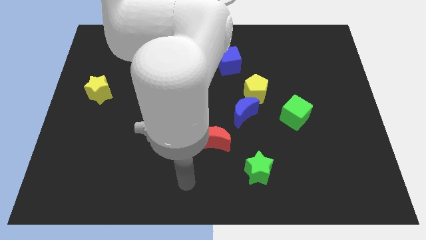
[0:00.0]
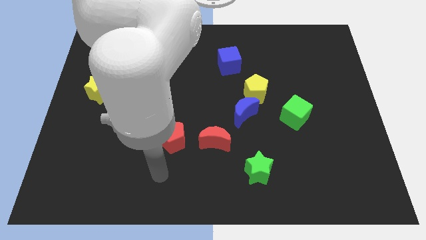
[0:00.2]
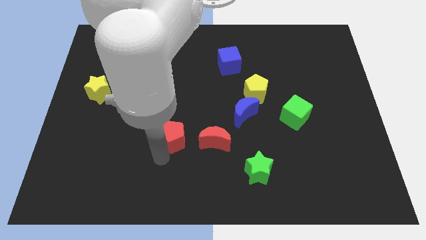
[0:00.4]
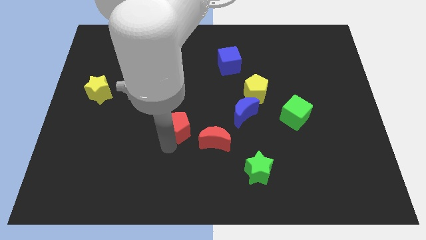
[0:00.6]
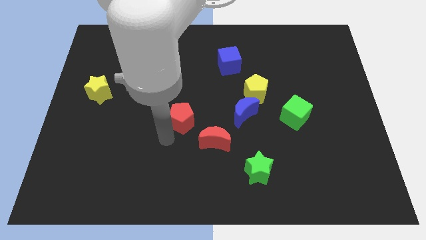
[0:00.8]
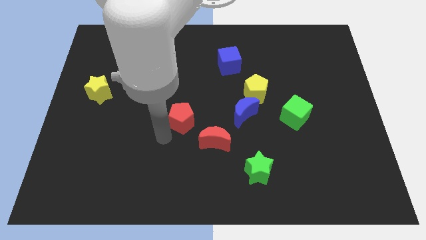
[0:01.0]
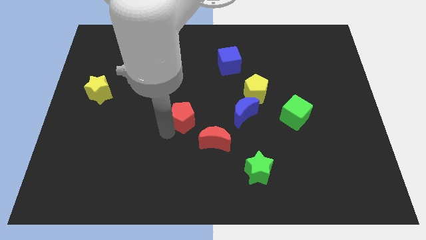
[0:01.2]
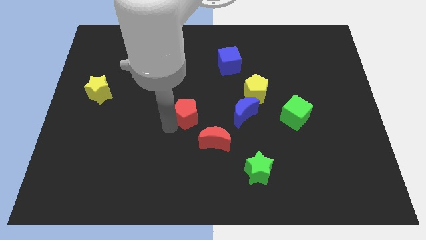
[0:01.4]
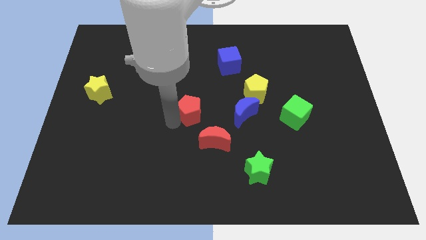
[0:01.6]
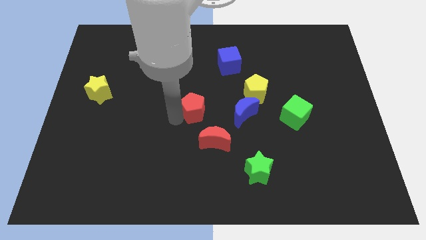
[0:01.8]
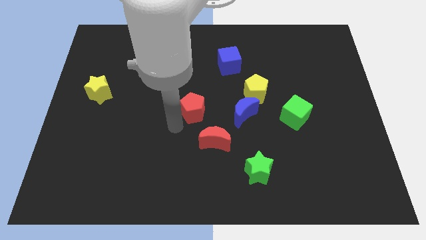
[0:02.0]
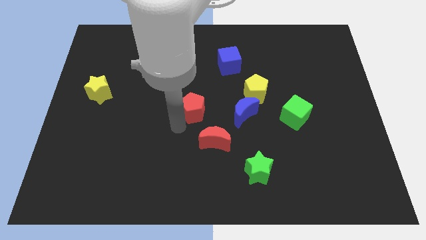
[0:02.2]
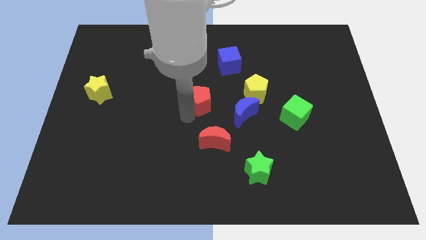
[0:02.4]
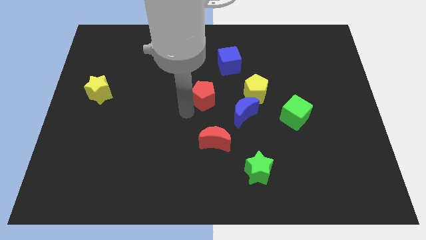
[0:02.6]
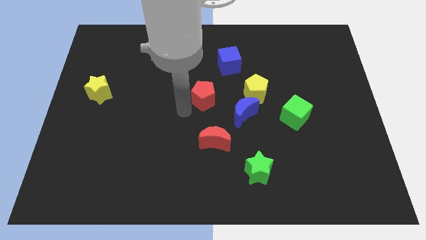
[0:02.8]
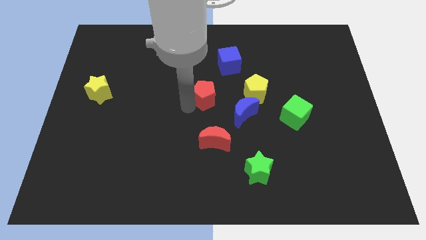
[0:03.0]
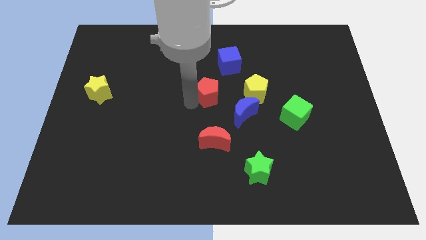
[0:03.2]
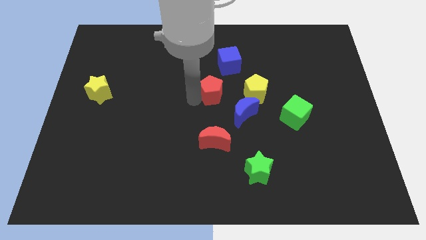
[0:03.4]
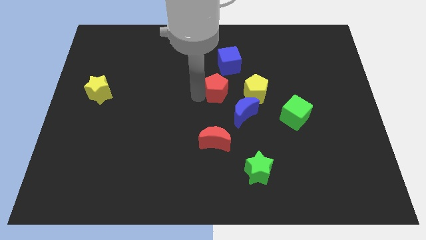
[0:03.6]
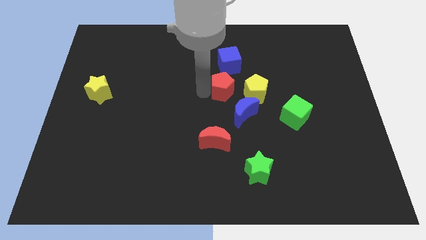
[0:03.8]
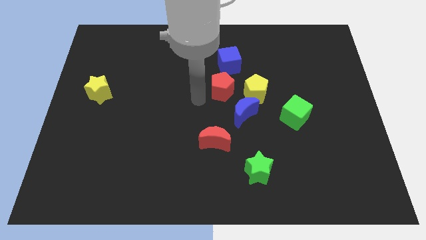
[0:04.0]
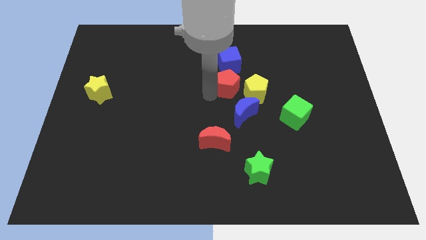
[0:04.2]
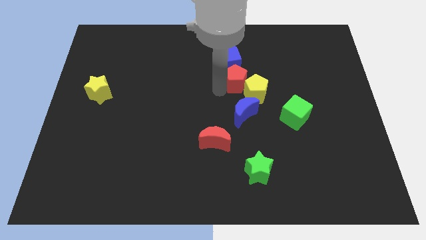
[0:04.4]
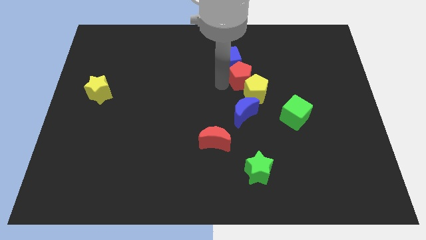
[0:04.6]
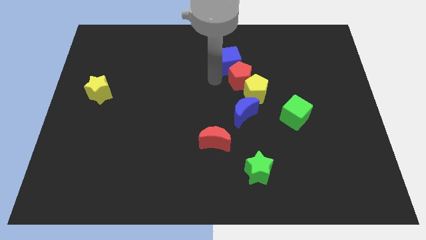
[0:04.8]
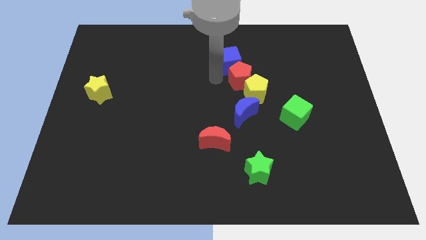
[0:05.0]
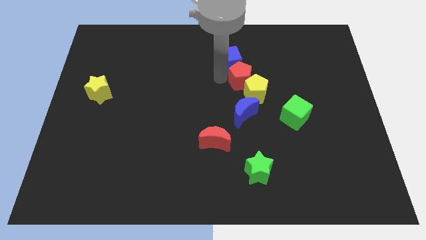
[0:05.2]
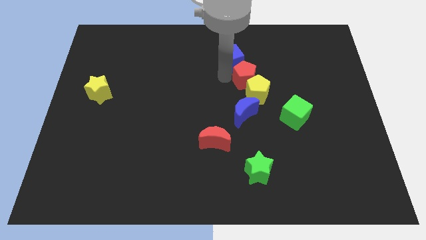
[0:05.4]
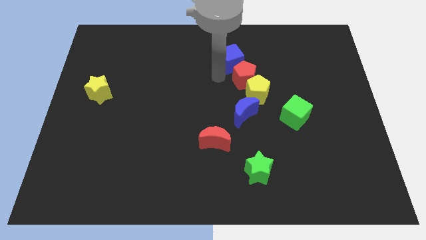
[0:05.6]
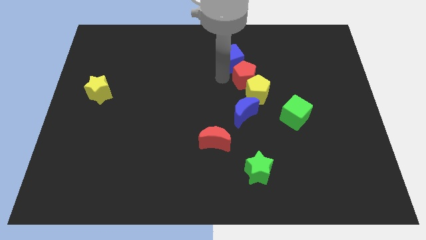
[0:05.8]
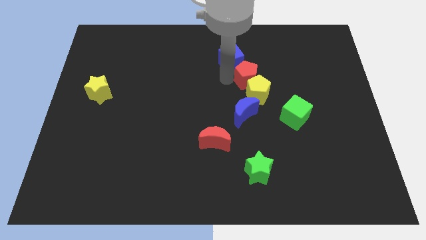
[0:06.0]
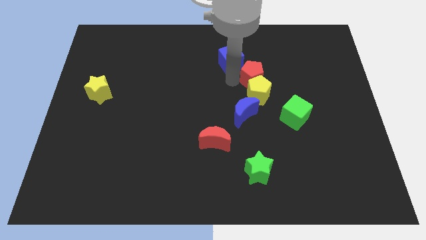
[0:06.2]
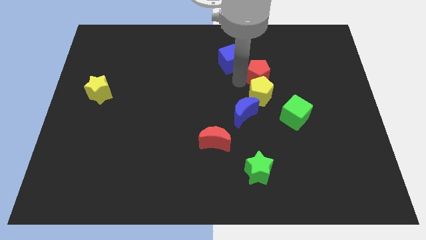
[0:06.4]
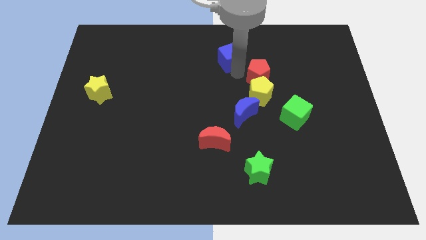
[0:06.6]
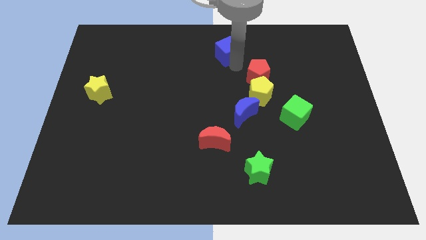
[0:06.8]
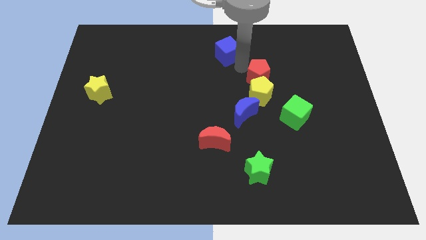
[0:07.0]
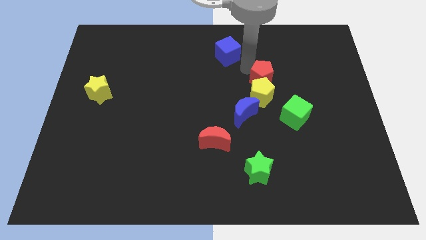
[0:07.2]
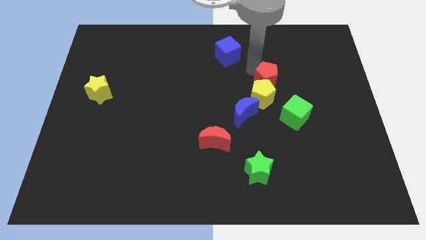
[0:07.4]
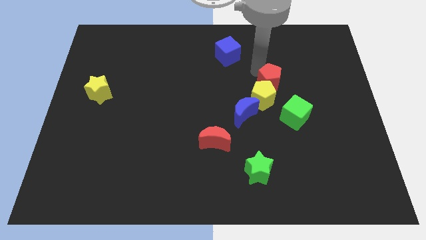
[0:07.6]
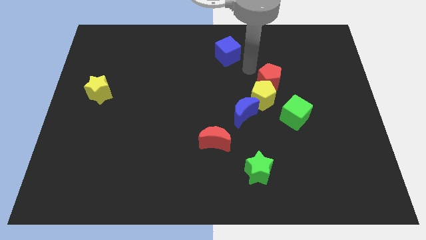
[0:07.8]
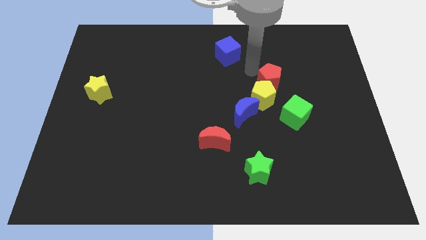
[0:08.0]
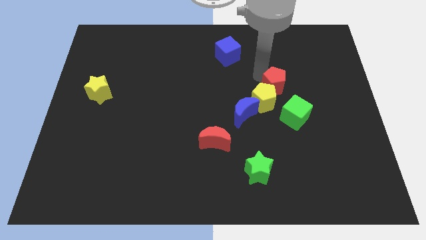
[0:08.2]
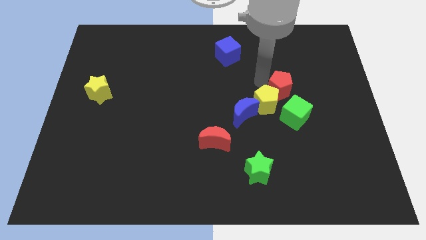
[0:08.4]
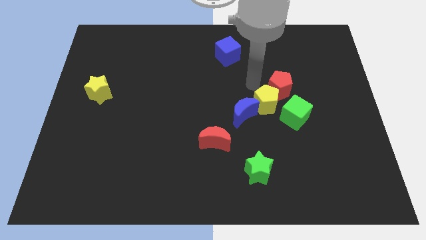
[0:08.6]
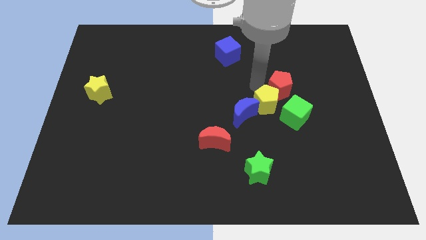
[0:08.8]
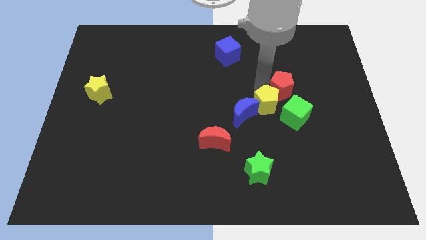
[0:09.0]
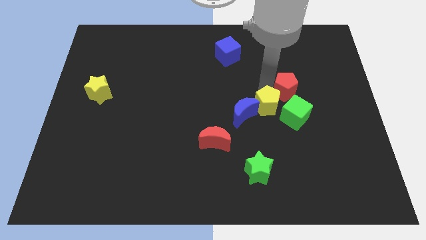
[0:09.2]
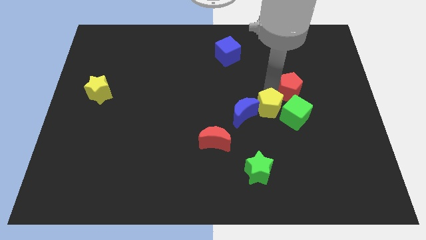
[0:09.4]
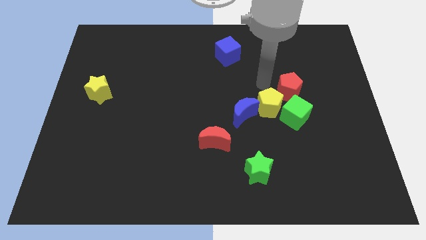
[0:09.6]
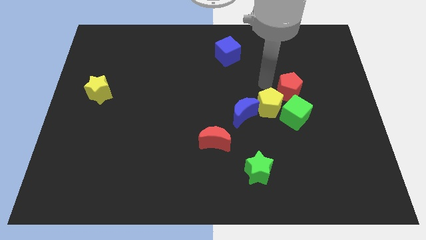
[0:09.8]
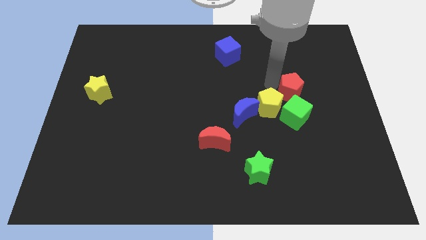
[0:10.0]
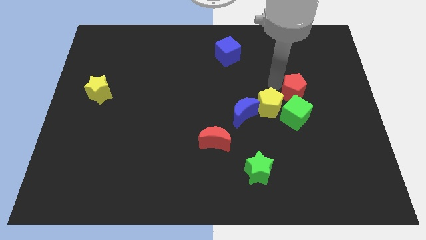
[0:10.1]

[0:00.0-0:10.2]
push the red pentagon to the top right side of the green cube

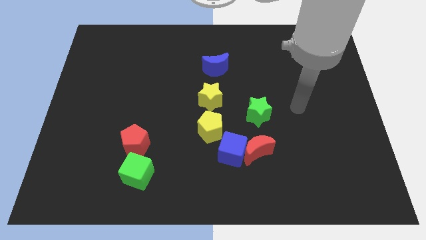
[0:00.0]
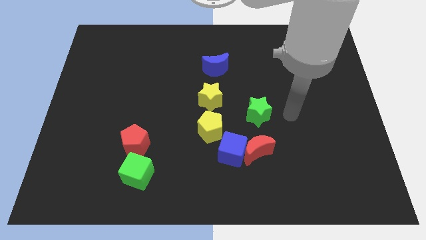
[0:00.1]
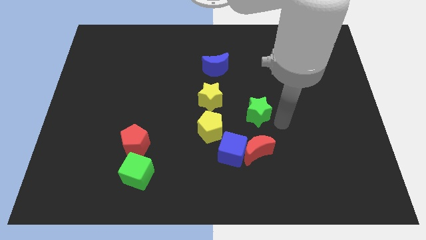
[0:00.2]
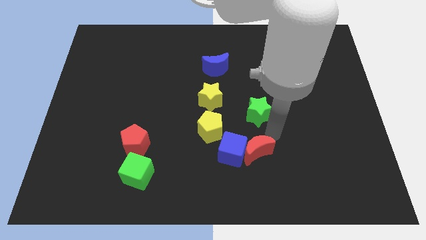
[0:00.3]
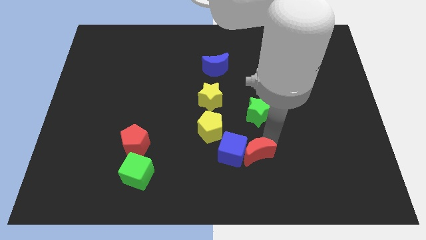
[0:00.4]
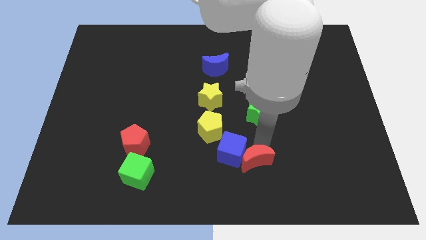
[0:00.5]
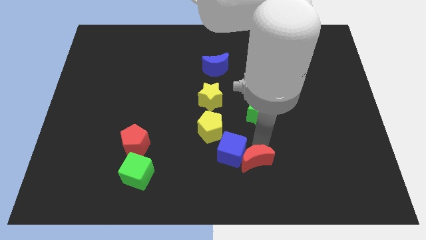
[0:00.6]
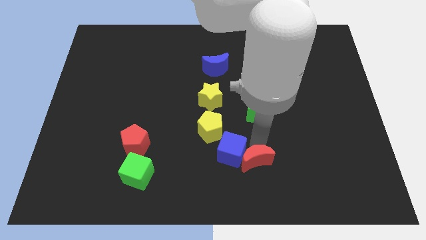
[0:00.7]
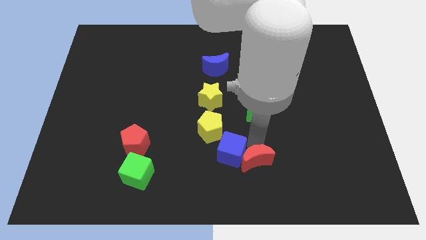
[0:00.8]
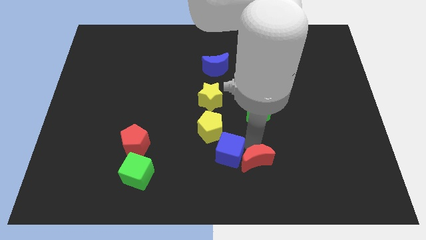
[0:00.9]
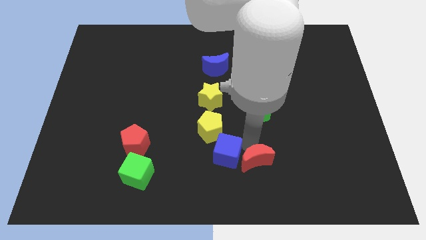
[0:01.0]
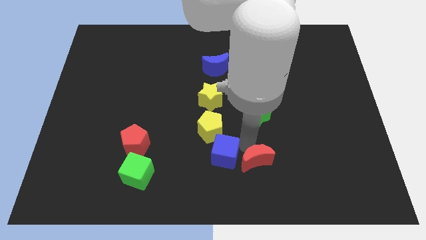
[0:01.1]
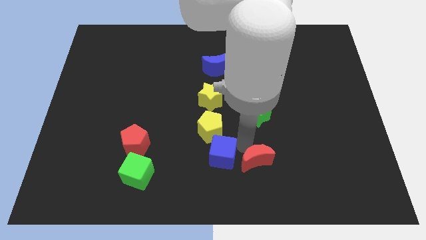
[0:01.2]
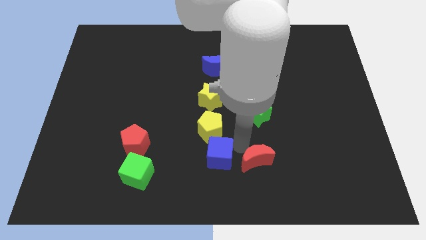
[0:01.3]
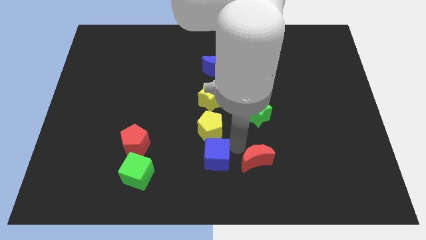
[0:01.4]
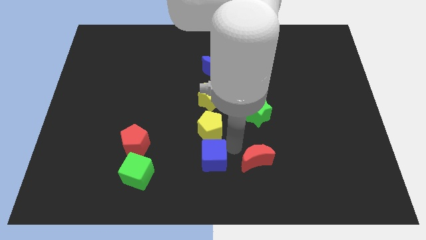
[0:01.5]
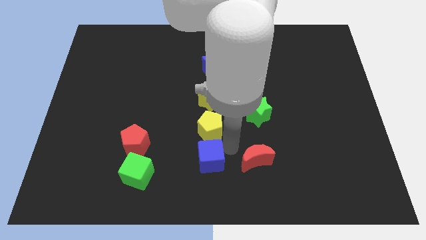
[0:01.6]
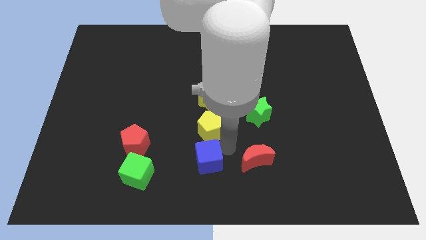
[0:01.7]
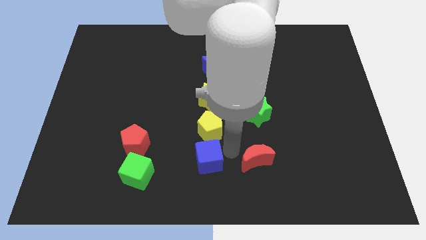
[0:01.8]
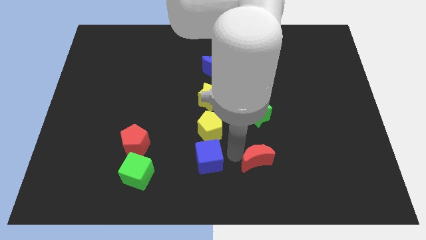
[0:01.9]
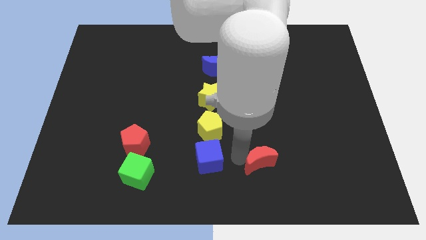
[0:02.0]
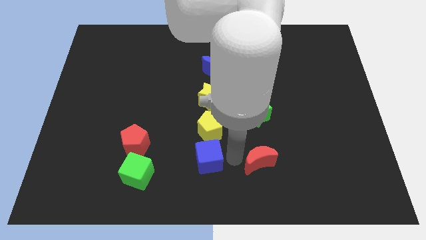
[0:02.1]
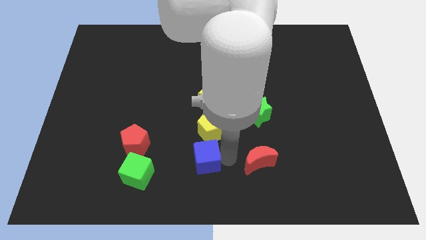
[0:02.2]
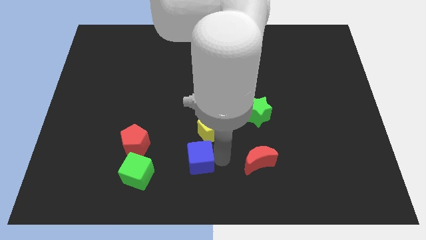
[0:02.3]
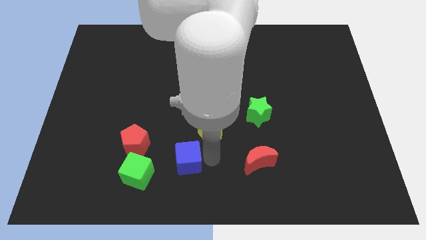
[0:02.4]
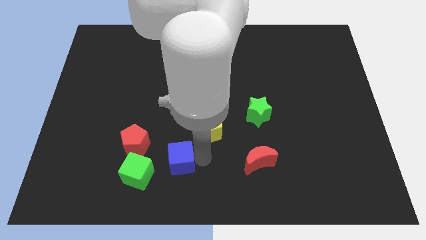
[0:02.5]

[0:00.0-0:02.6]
move the blue cube to the bottom right side of the red pentagon
